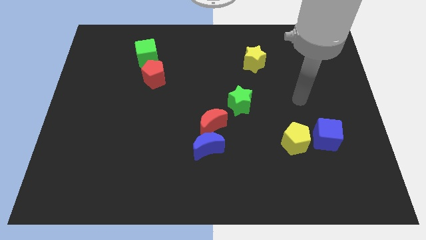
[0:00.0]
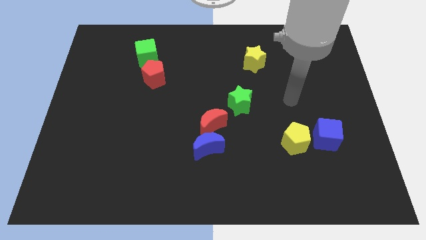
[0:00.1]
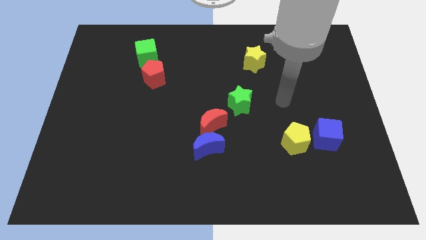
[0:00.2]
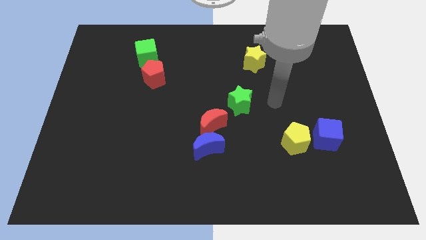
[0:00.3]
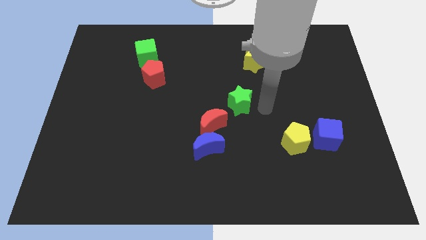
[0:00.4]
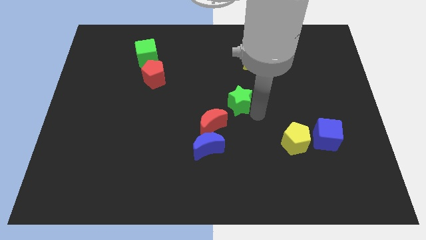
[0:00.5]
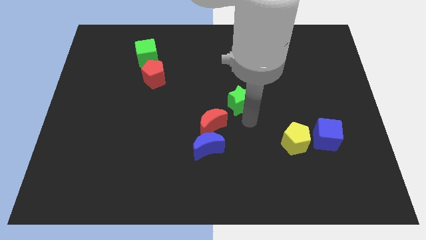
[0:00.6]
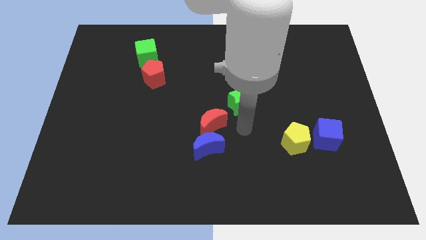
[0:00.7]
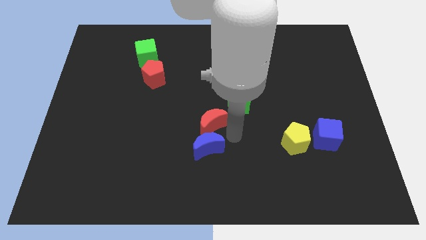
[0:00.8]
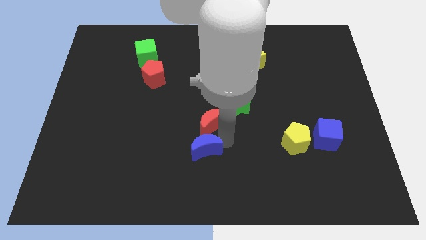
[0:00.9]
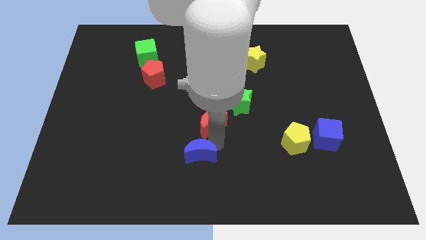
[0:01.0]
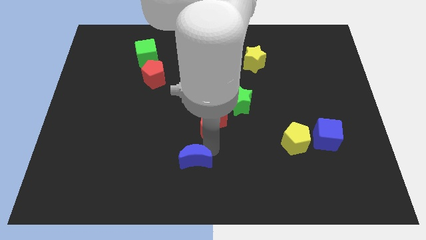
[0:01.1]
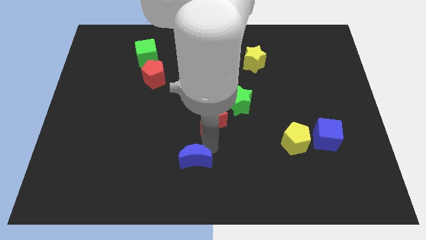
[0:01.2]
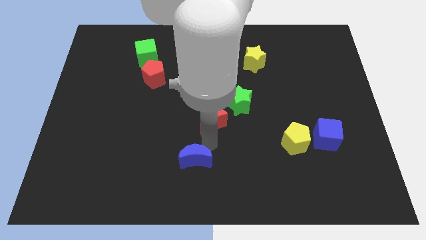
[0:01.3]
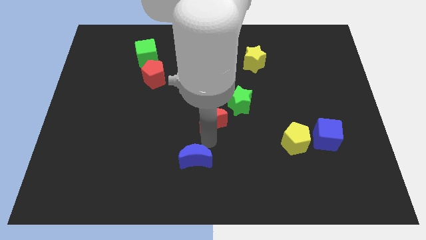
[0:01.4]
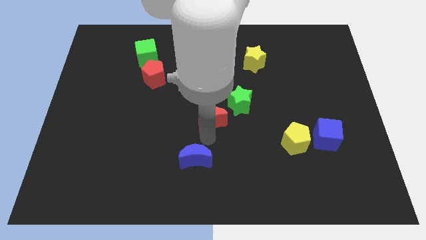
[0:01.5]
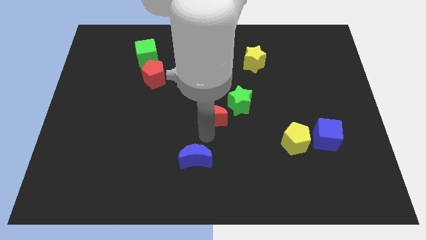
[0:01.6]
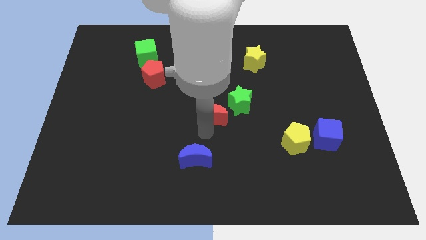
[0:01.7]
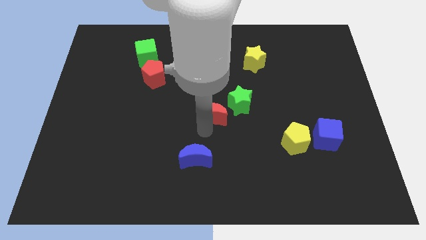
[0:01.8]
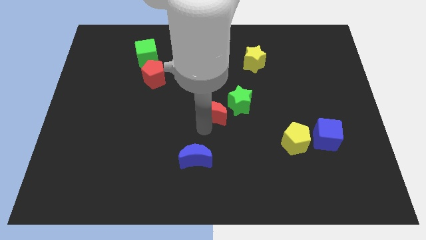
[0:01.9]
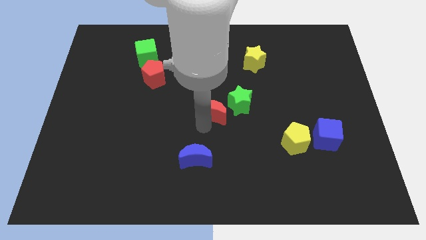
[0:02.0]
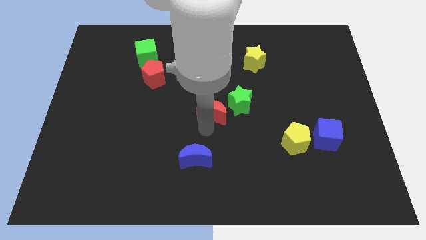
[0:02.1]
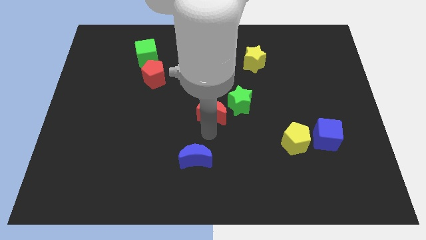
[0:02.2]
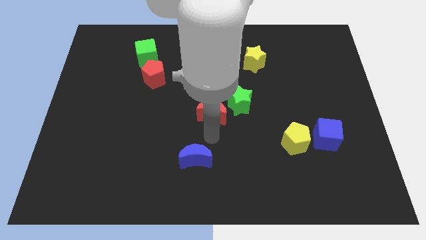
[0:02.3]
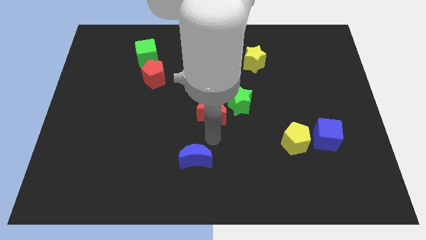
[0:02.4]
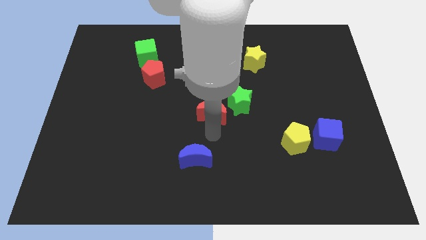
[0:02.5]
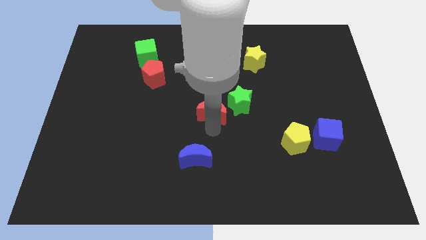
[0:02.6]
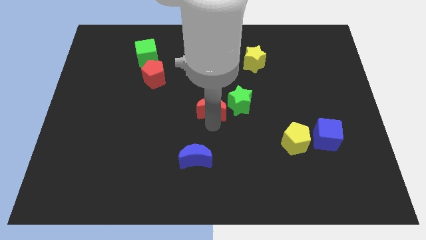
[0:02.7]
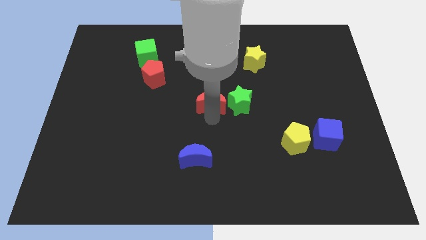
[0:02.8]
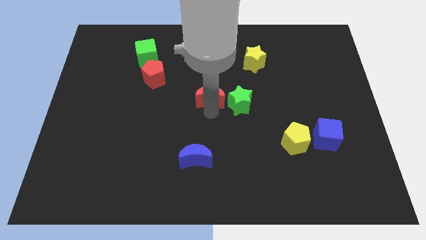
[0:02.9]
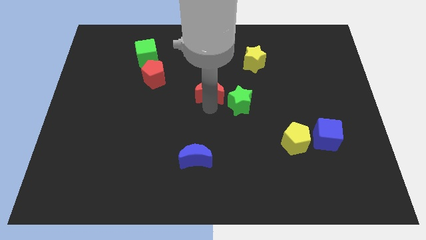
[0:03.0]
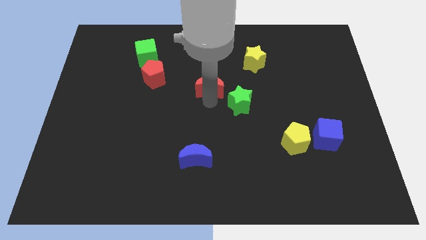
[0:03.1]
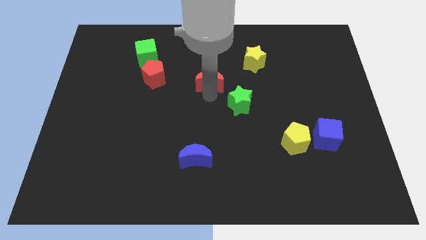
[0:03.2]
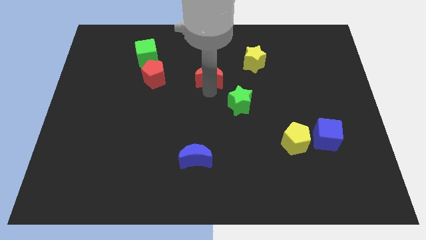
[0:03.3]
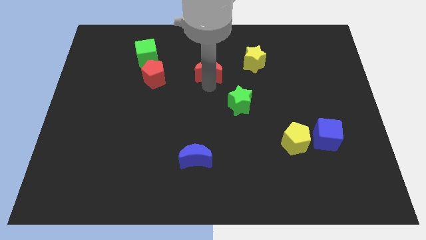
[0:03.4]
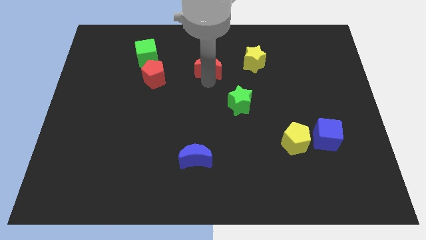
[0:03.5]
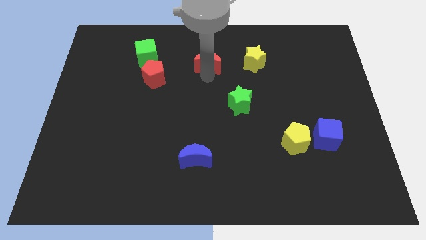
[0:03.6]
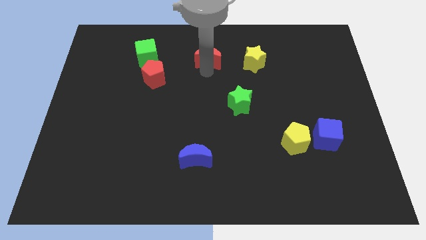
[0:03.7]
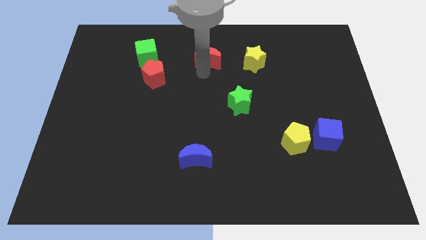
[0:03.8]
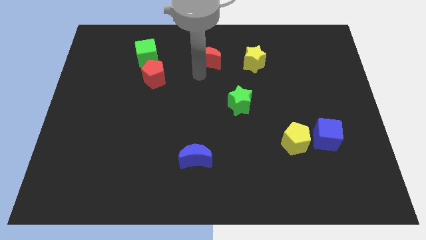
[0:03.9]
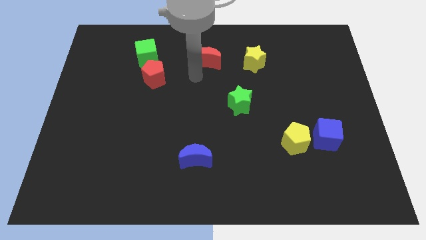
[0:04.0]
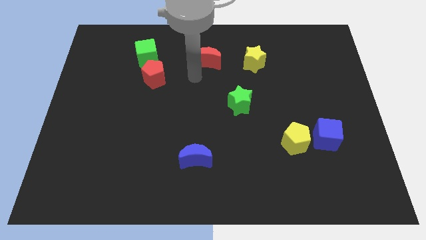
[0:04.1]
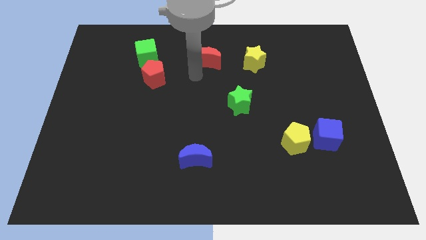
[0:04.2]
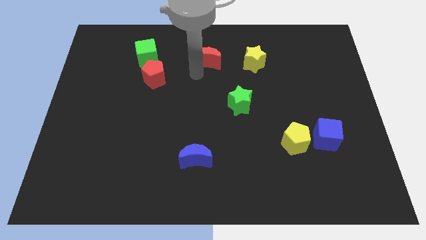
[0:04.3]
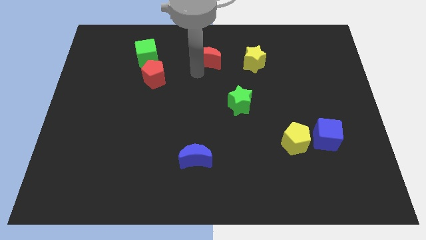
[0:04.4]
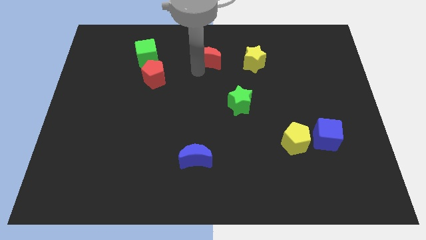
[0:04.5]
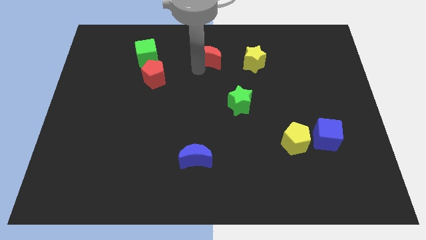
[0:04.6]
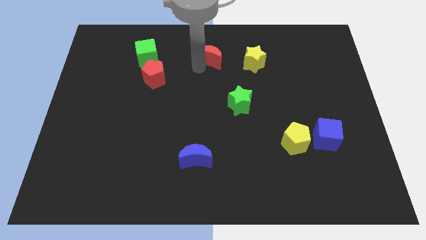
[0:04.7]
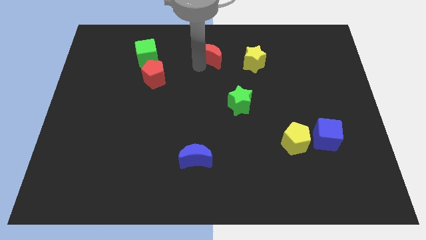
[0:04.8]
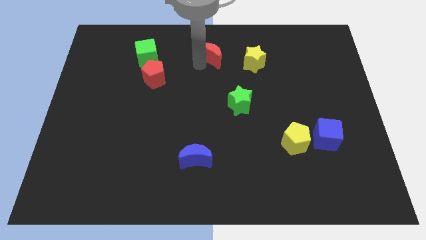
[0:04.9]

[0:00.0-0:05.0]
put the red moon to the towards your base
